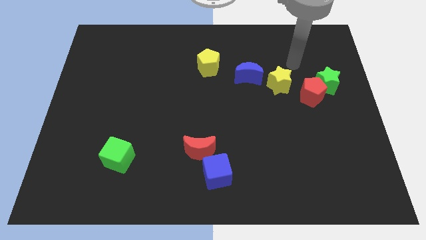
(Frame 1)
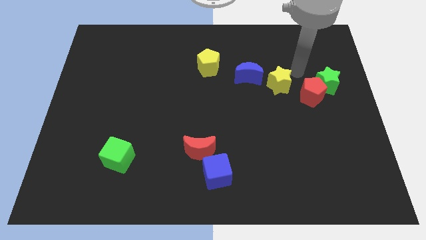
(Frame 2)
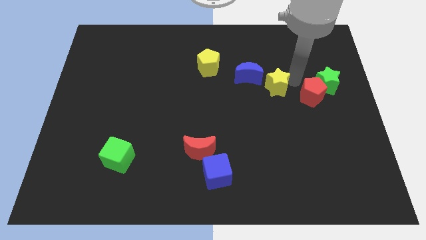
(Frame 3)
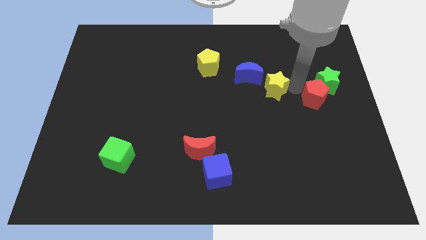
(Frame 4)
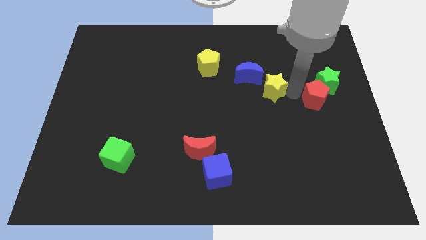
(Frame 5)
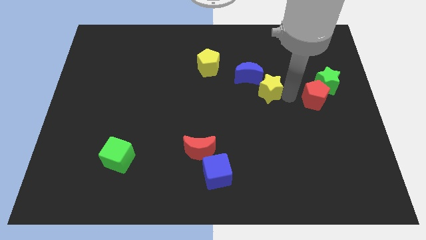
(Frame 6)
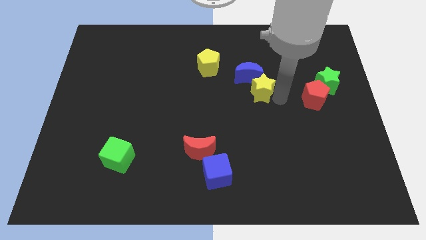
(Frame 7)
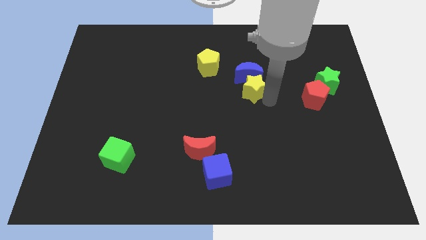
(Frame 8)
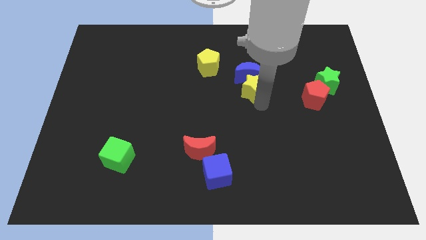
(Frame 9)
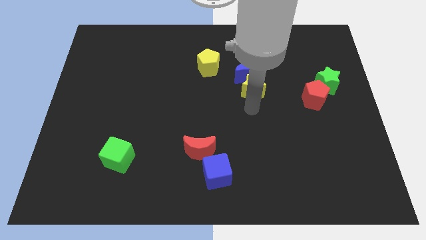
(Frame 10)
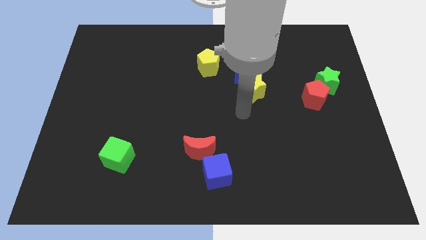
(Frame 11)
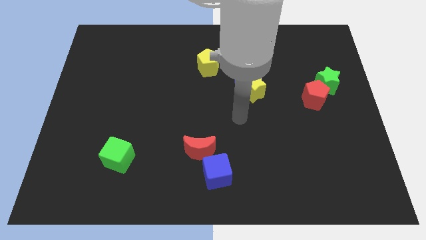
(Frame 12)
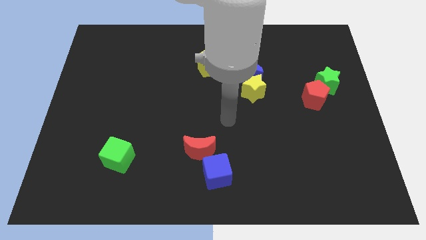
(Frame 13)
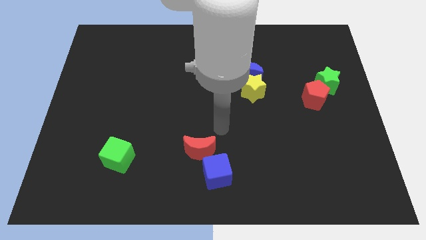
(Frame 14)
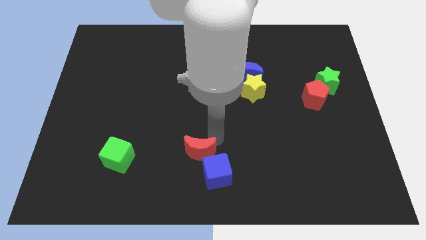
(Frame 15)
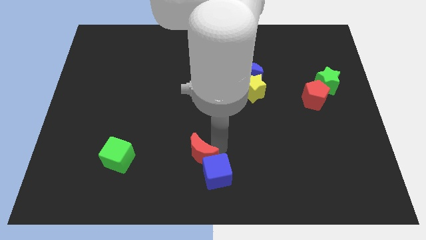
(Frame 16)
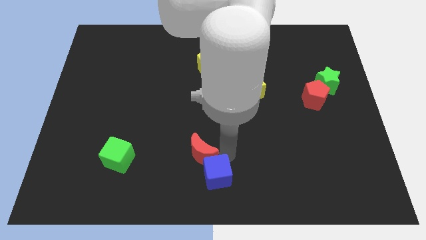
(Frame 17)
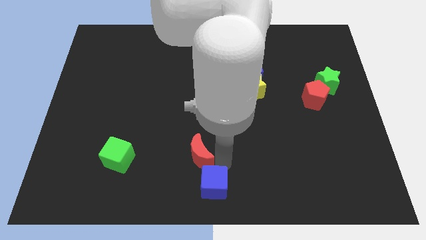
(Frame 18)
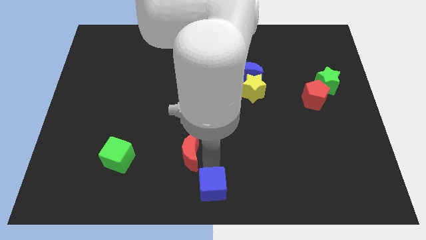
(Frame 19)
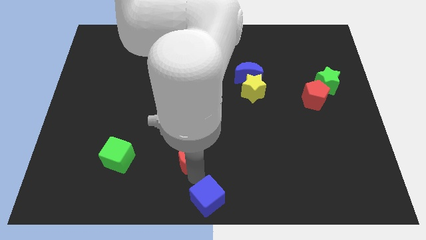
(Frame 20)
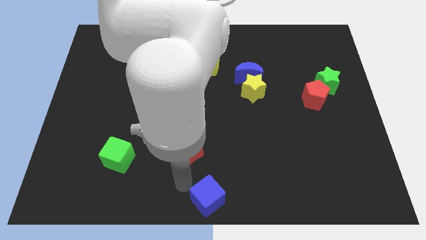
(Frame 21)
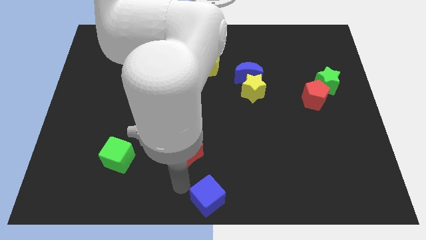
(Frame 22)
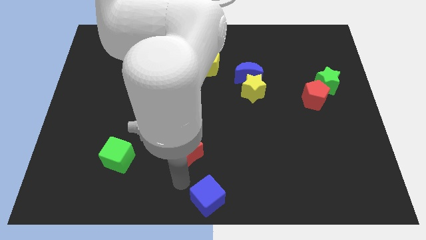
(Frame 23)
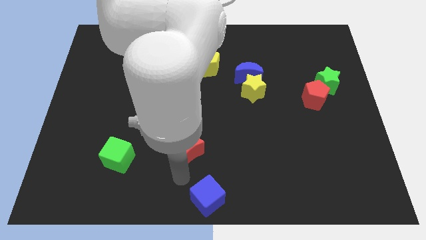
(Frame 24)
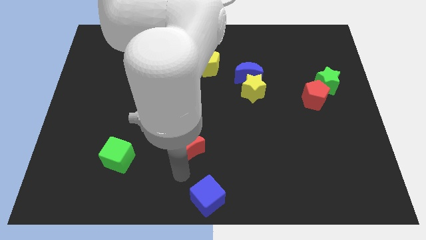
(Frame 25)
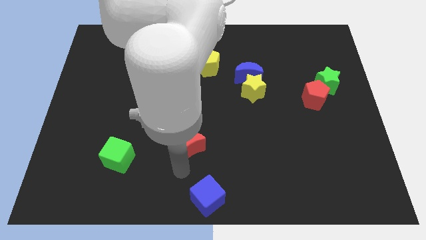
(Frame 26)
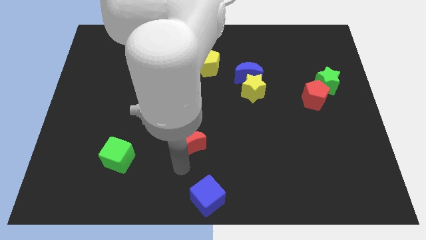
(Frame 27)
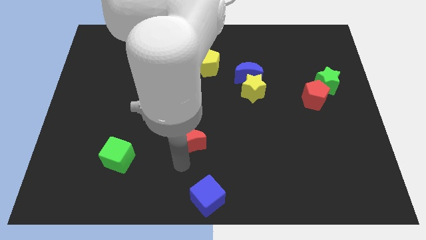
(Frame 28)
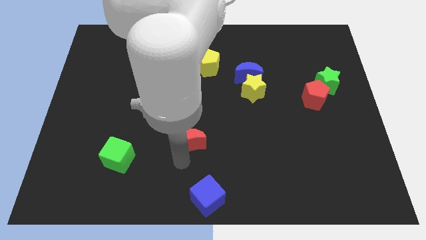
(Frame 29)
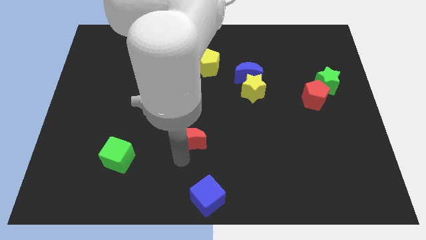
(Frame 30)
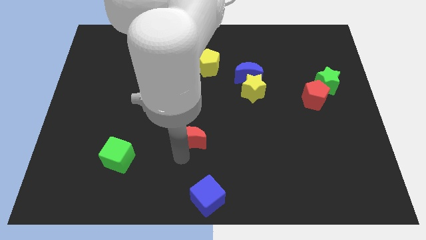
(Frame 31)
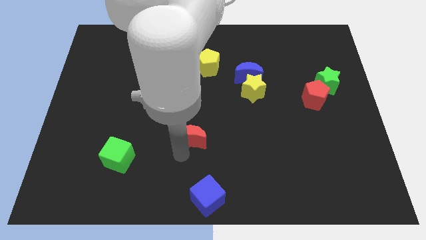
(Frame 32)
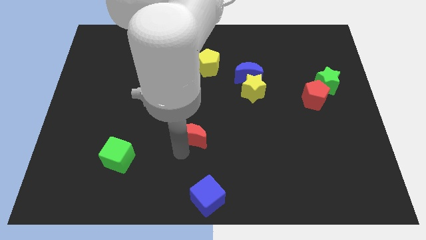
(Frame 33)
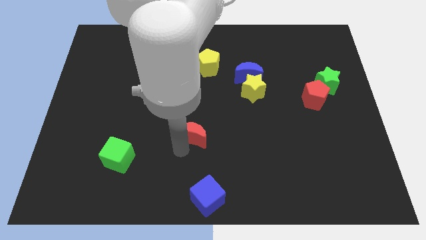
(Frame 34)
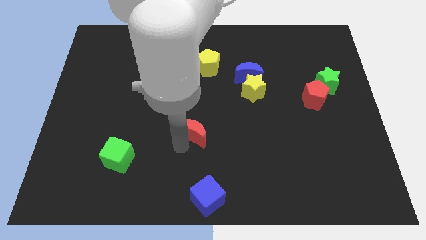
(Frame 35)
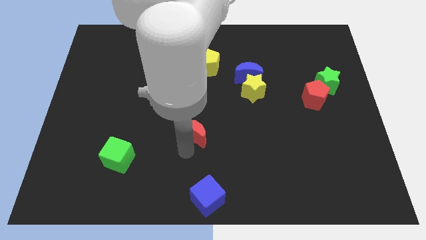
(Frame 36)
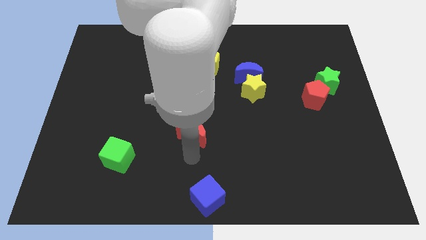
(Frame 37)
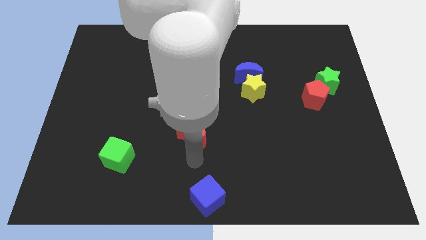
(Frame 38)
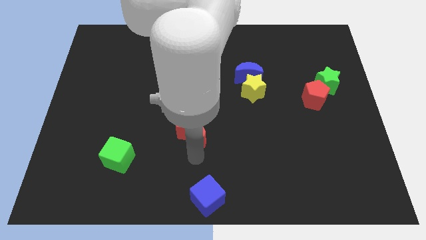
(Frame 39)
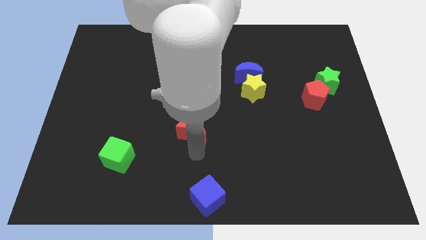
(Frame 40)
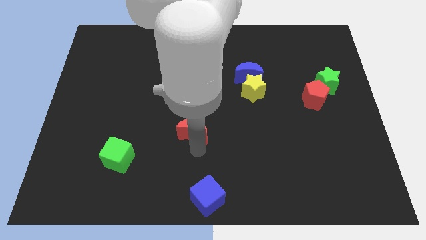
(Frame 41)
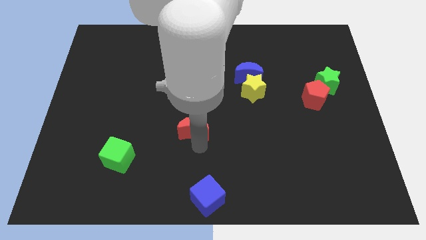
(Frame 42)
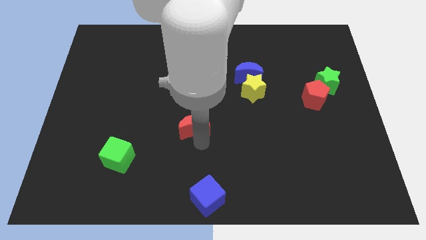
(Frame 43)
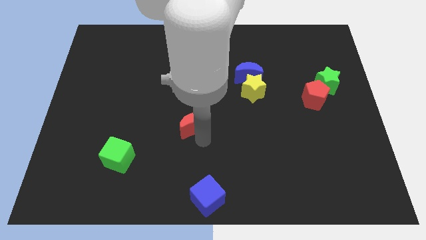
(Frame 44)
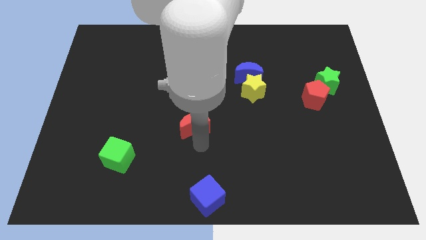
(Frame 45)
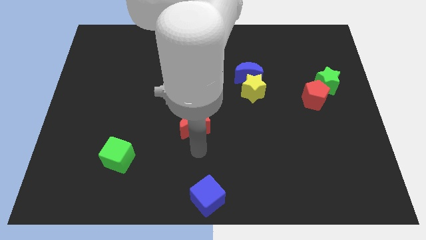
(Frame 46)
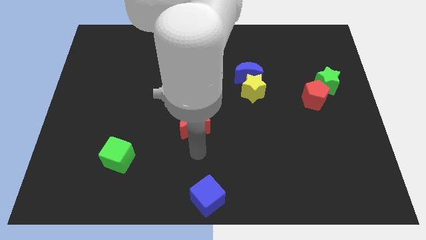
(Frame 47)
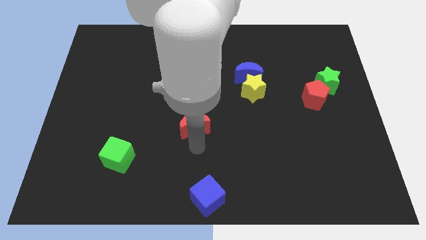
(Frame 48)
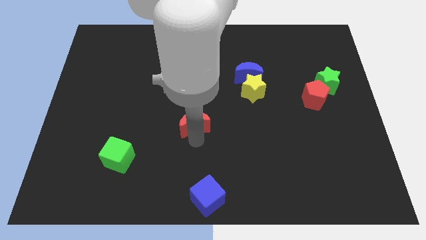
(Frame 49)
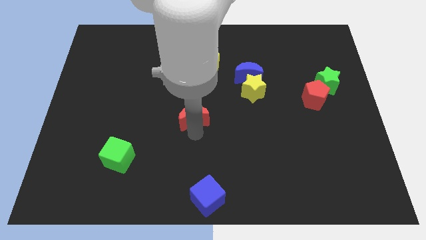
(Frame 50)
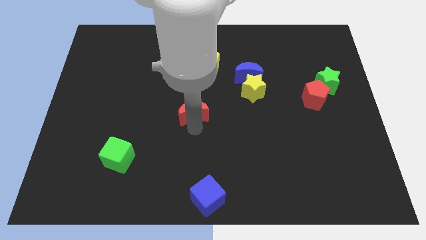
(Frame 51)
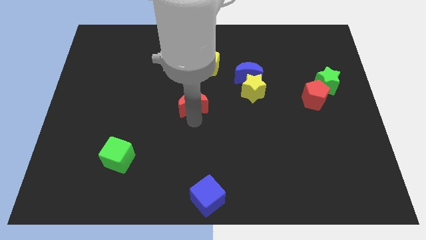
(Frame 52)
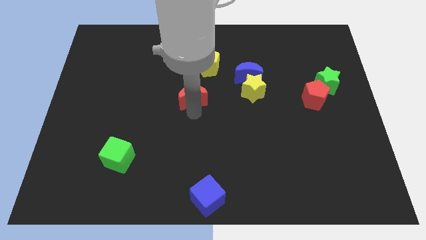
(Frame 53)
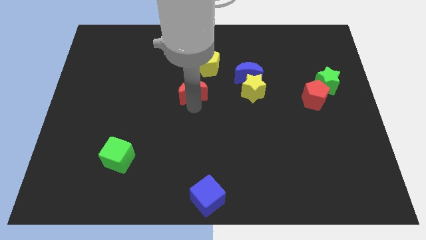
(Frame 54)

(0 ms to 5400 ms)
put the red moon to the bottom left side of the yellow pentagon

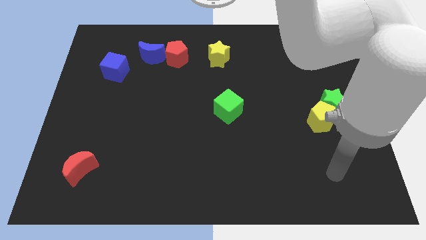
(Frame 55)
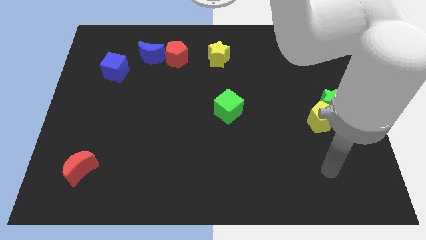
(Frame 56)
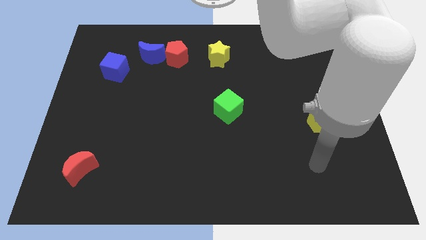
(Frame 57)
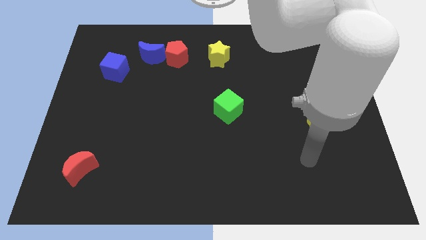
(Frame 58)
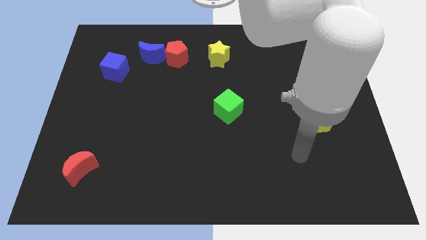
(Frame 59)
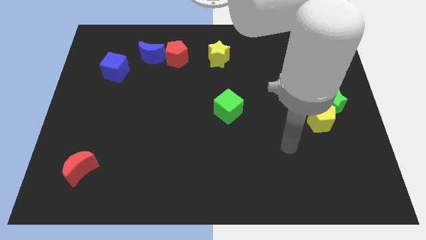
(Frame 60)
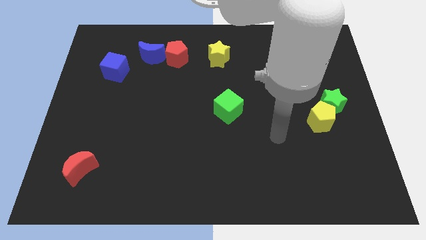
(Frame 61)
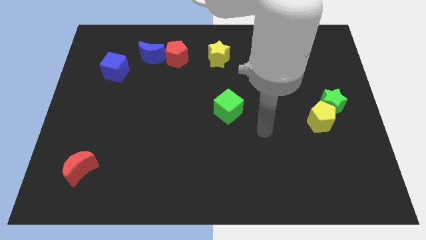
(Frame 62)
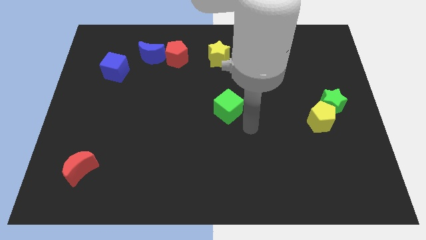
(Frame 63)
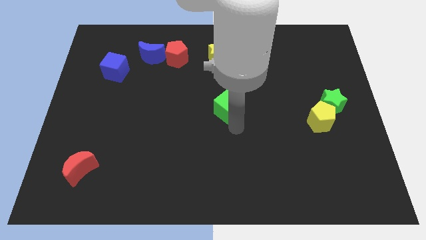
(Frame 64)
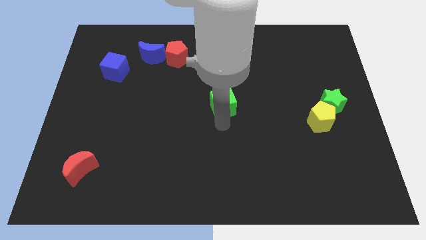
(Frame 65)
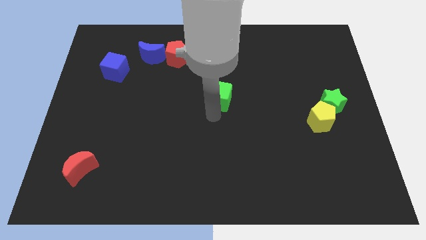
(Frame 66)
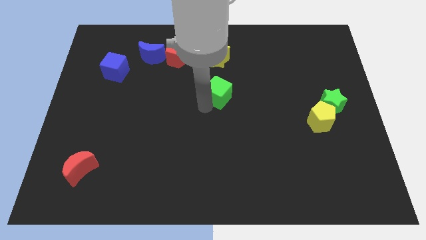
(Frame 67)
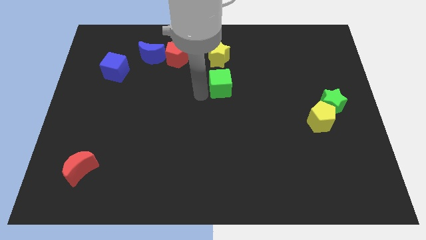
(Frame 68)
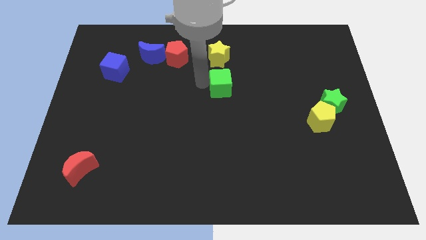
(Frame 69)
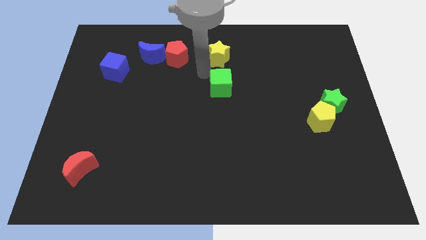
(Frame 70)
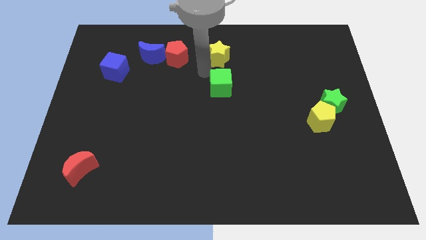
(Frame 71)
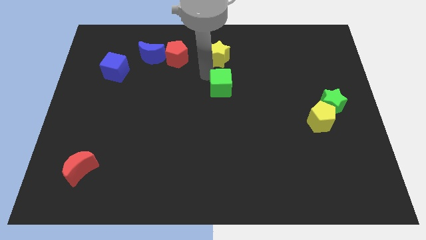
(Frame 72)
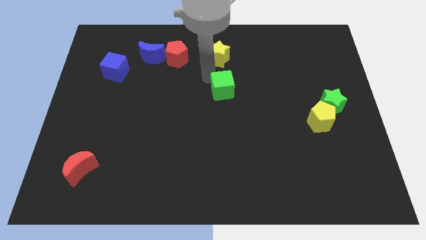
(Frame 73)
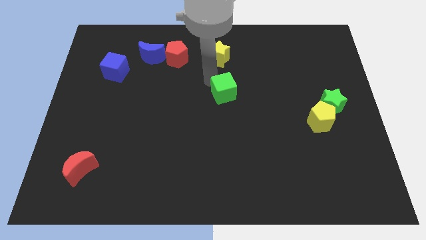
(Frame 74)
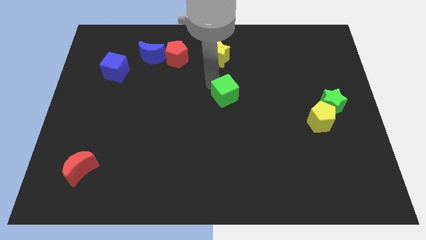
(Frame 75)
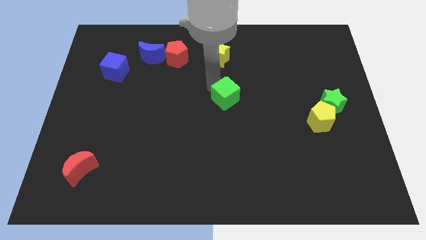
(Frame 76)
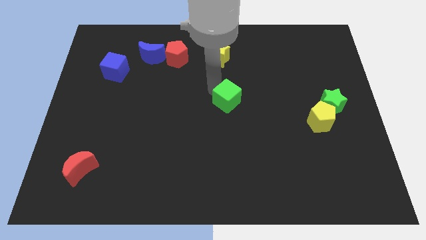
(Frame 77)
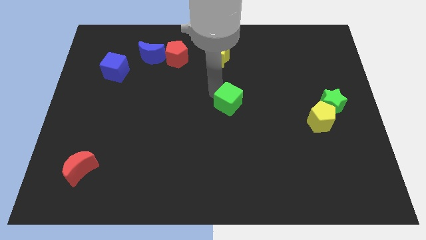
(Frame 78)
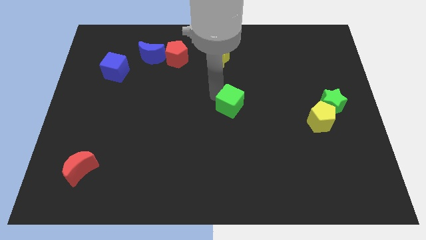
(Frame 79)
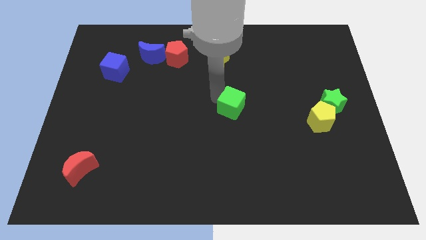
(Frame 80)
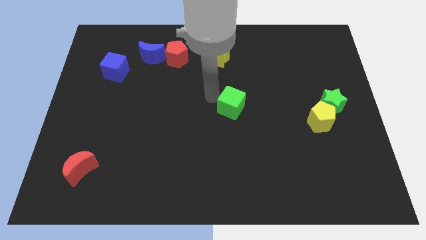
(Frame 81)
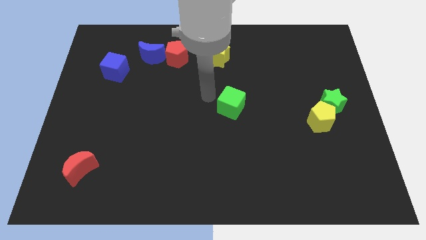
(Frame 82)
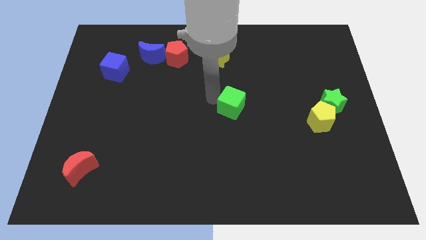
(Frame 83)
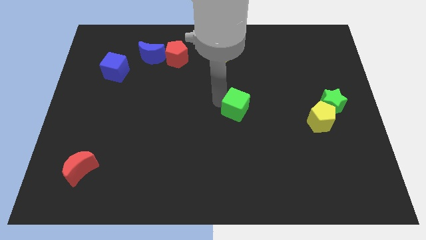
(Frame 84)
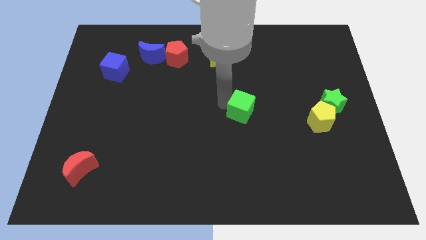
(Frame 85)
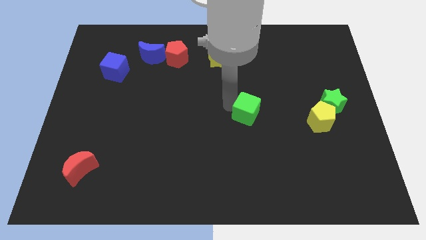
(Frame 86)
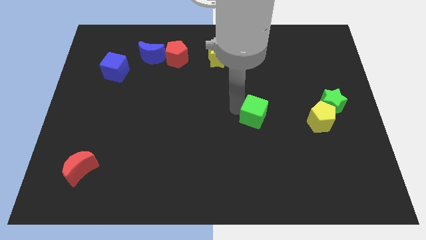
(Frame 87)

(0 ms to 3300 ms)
push the green cube to the left side of the yellow pentagon
